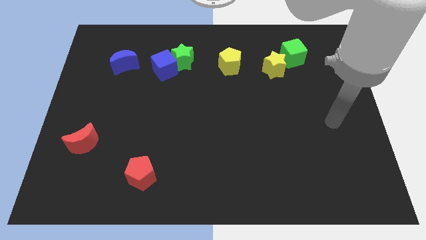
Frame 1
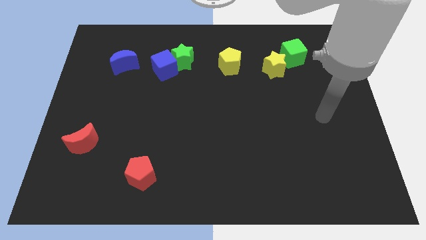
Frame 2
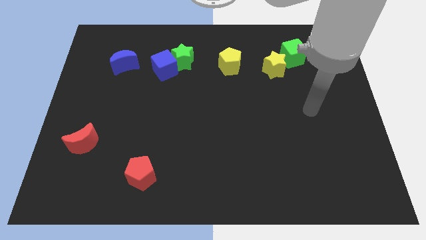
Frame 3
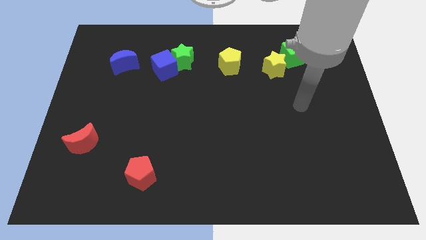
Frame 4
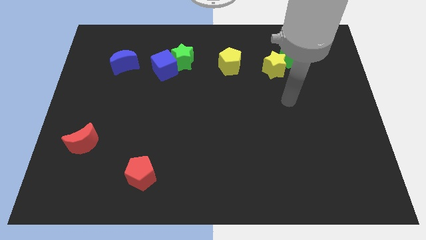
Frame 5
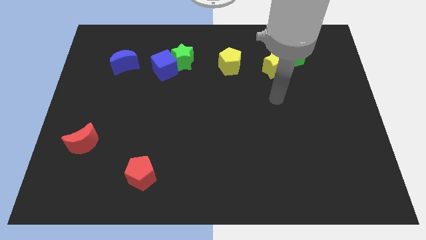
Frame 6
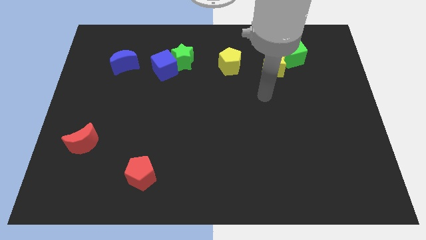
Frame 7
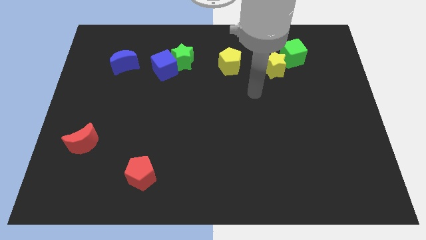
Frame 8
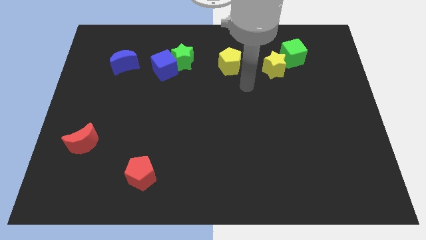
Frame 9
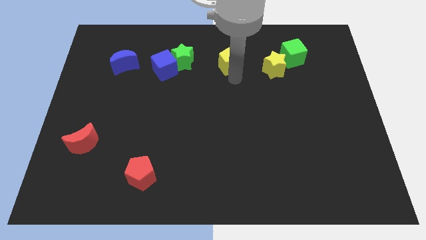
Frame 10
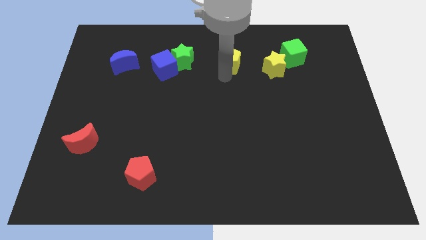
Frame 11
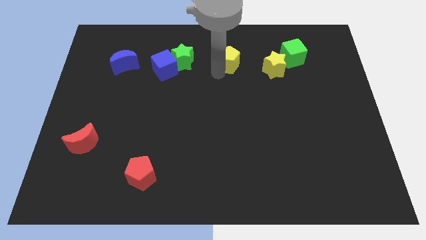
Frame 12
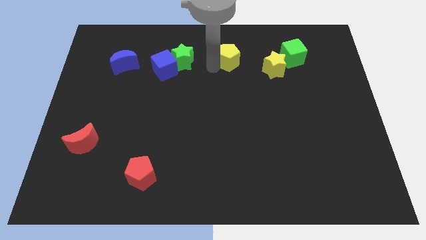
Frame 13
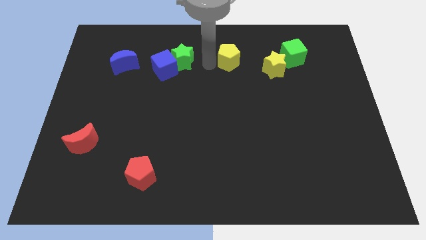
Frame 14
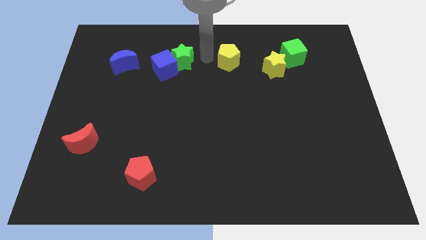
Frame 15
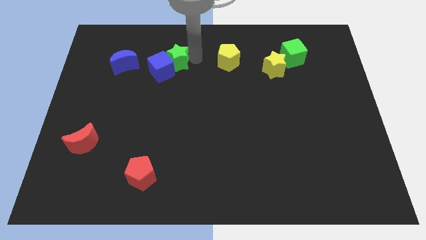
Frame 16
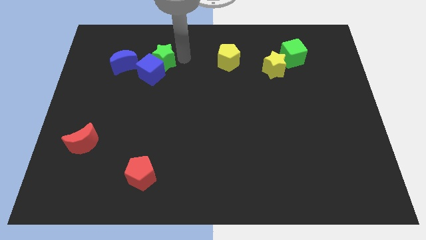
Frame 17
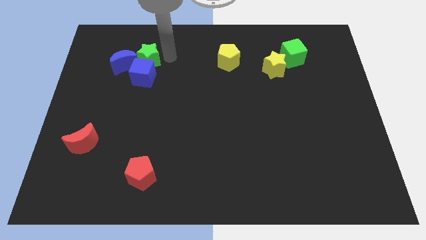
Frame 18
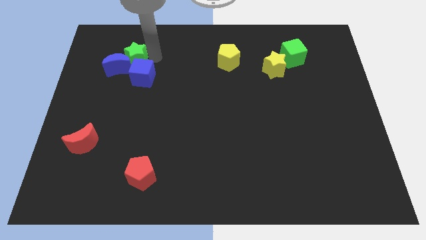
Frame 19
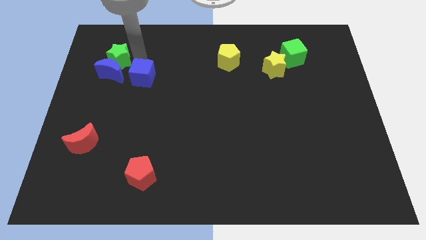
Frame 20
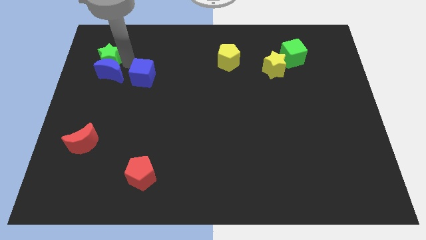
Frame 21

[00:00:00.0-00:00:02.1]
move the blue cube away from the green star

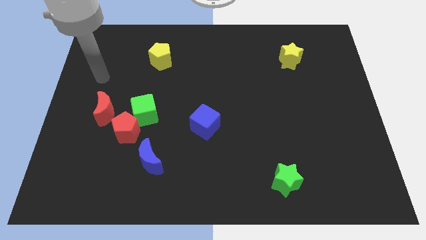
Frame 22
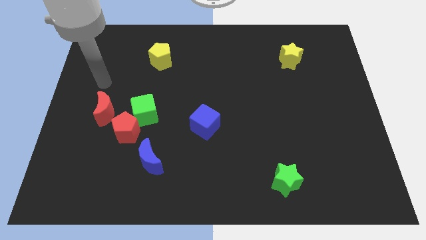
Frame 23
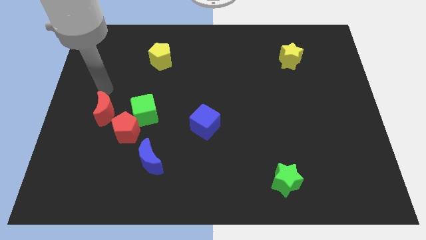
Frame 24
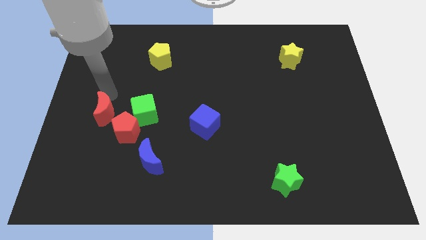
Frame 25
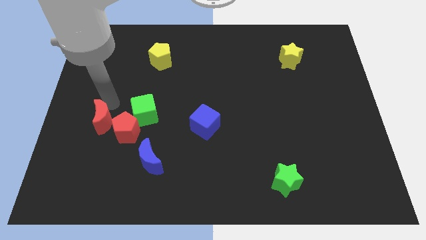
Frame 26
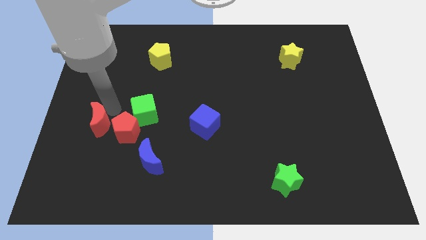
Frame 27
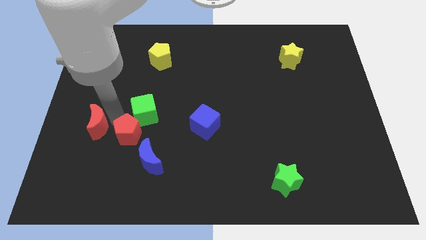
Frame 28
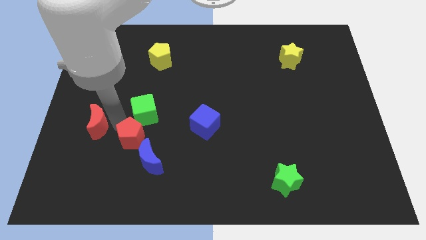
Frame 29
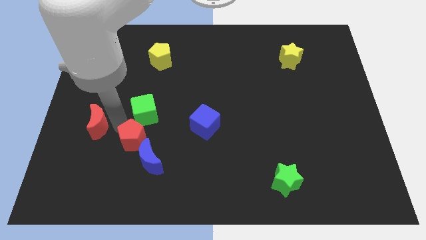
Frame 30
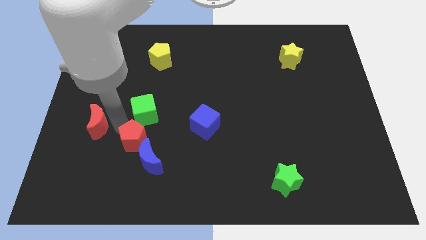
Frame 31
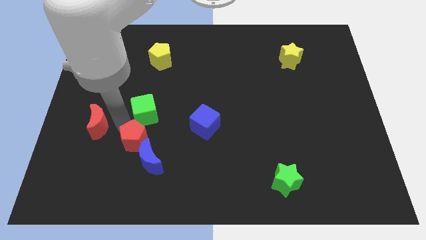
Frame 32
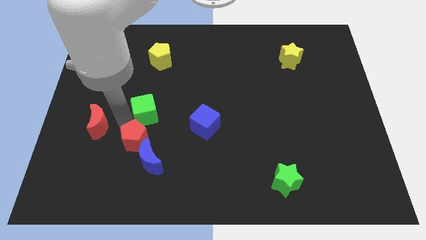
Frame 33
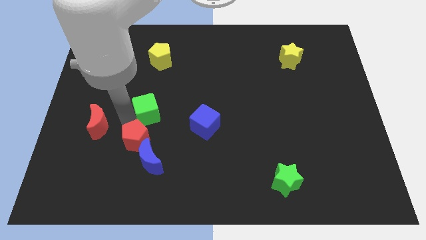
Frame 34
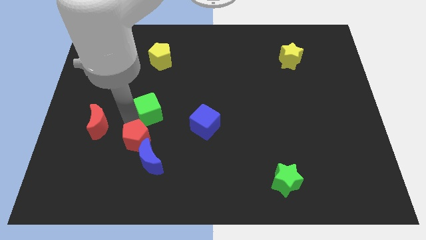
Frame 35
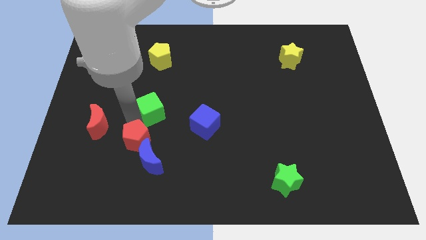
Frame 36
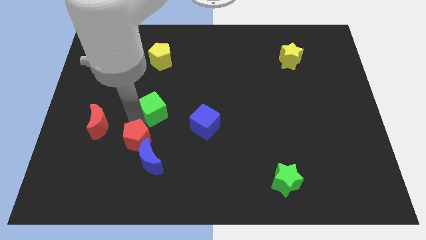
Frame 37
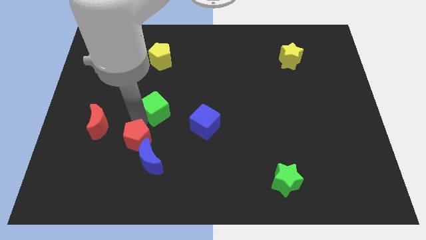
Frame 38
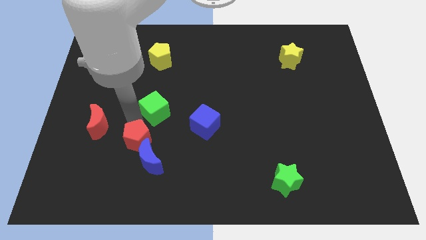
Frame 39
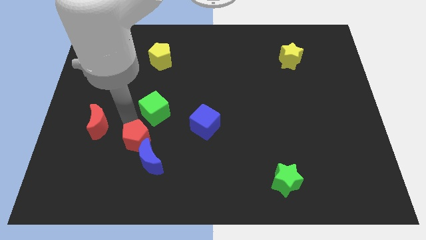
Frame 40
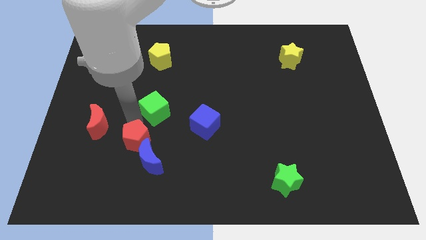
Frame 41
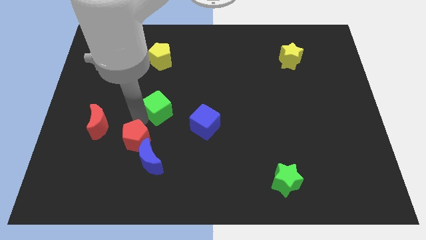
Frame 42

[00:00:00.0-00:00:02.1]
separate the green cube from the red pentagon and red moon

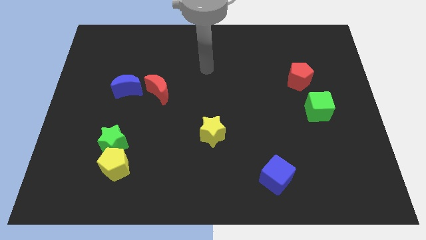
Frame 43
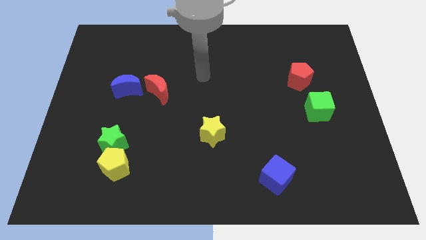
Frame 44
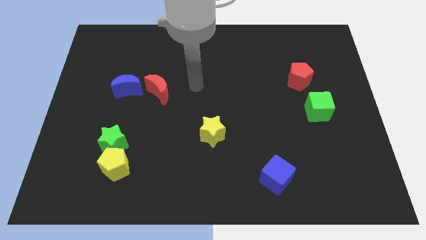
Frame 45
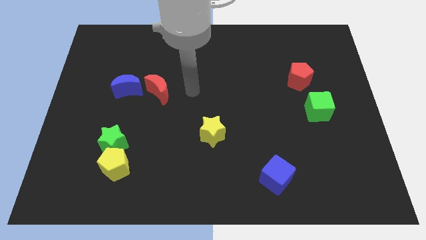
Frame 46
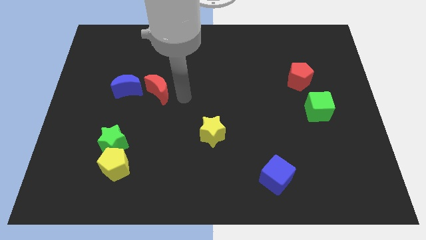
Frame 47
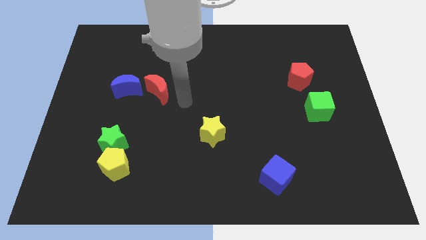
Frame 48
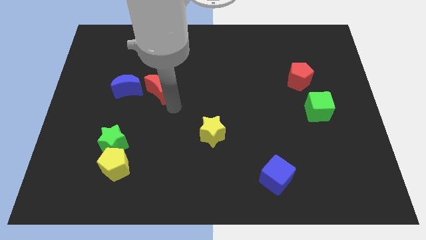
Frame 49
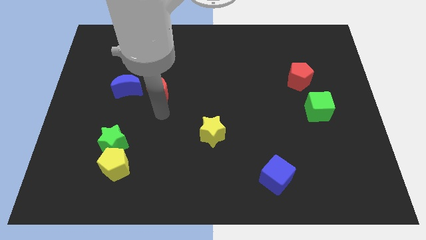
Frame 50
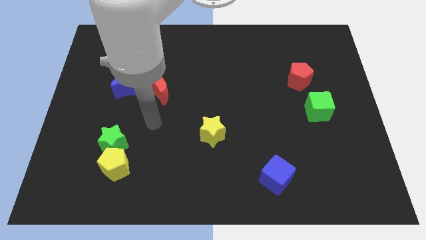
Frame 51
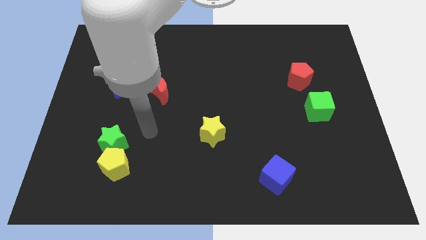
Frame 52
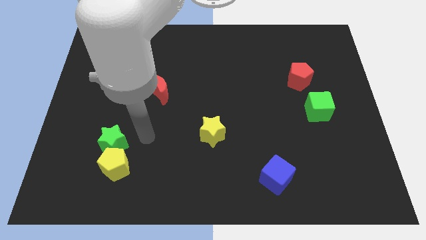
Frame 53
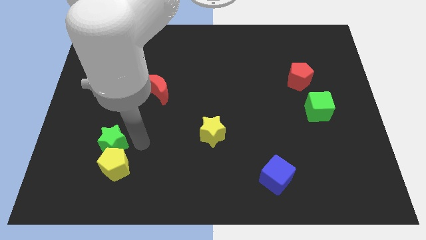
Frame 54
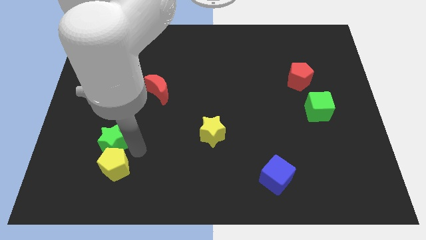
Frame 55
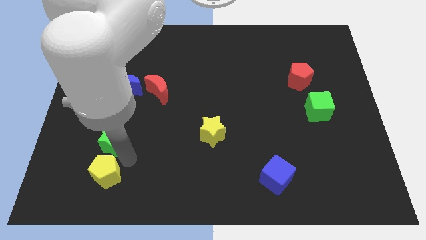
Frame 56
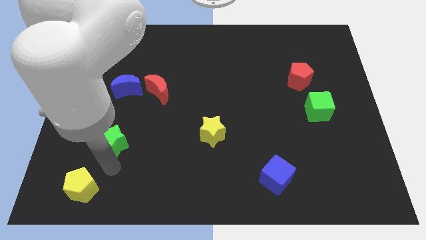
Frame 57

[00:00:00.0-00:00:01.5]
pull the green star apart from the yellow pentagon

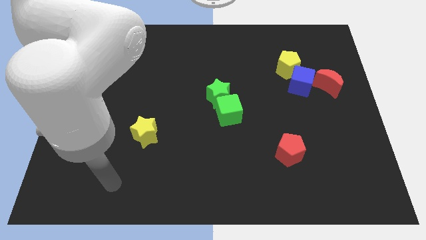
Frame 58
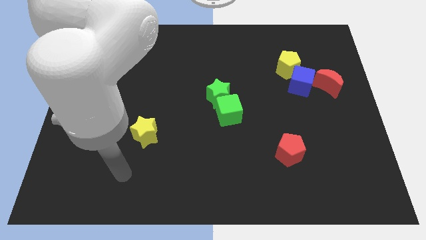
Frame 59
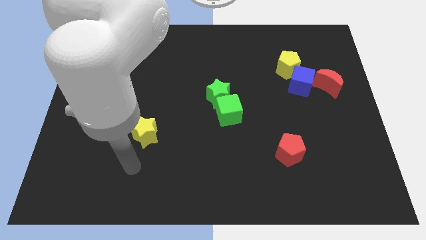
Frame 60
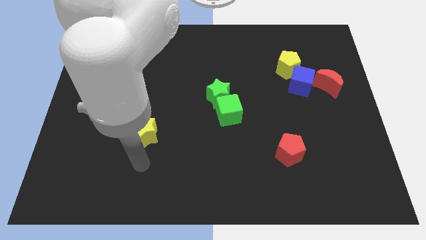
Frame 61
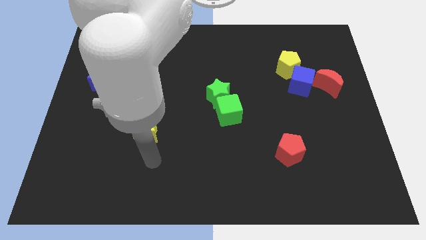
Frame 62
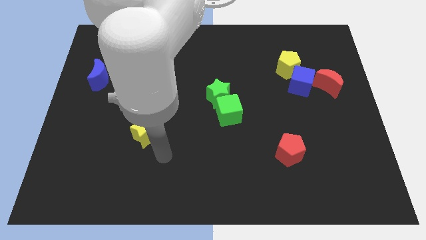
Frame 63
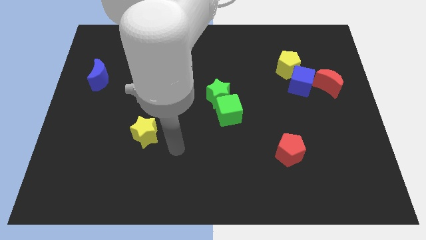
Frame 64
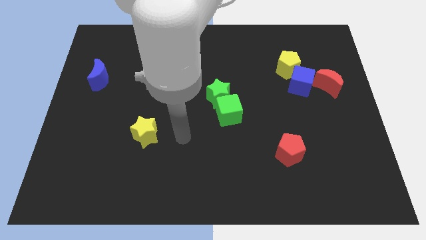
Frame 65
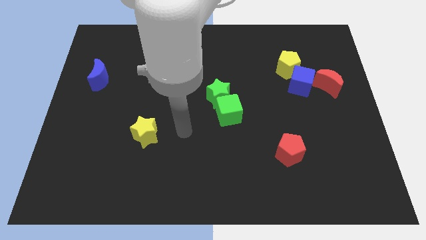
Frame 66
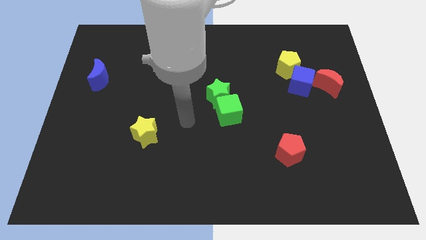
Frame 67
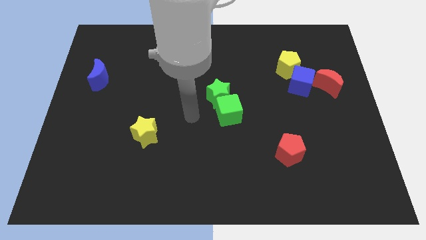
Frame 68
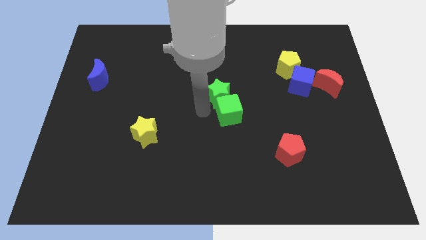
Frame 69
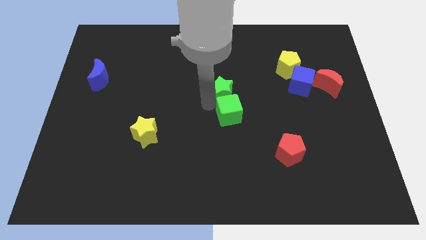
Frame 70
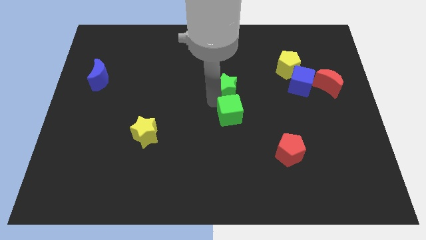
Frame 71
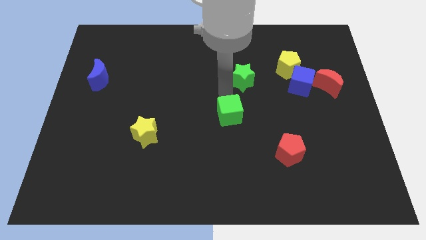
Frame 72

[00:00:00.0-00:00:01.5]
move the green cube away from the green star

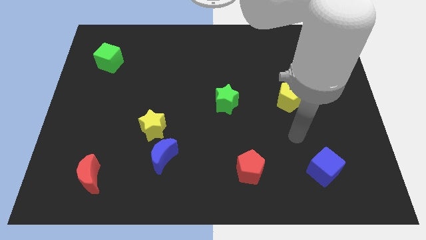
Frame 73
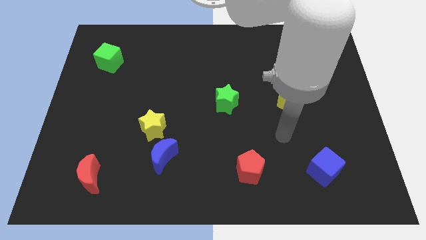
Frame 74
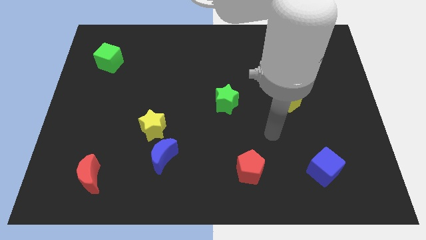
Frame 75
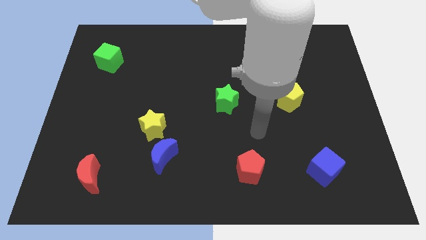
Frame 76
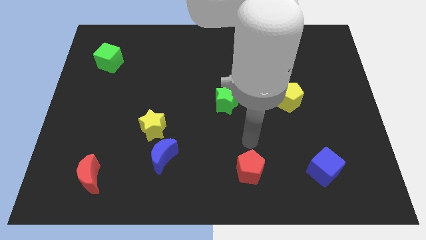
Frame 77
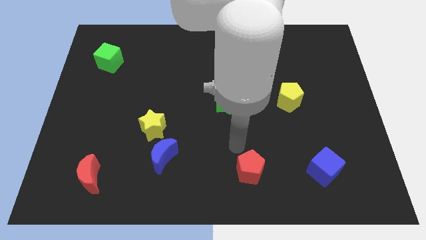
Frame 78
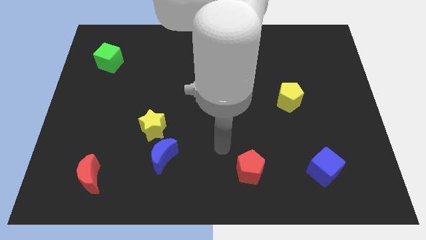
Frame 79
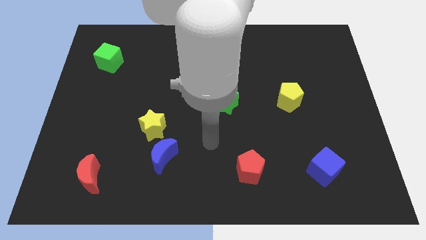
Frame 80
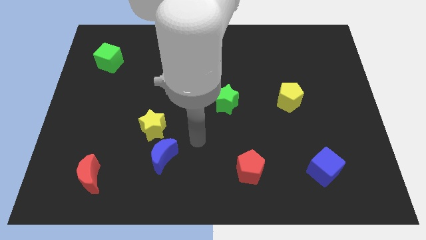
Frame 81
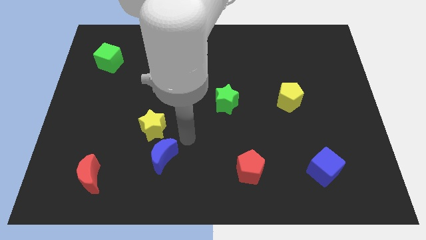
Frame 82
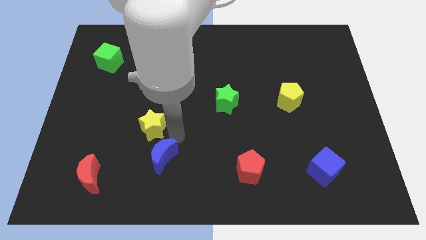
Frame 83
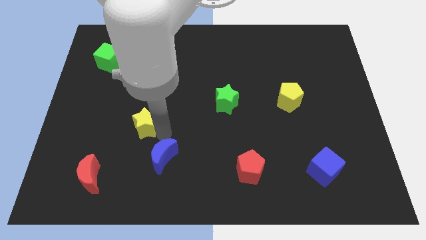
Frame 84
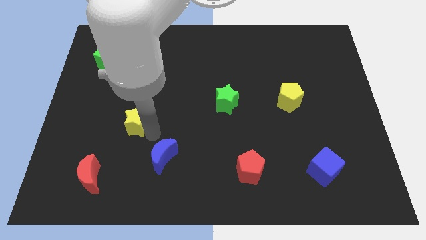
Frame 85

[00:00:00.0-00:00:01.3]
separate the blue moon from the yellow star

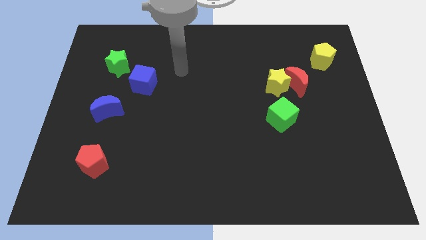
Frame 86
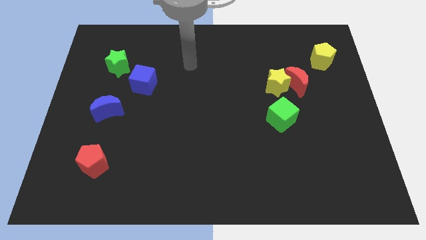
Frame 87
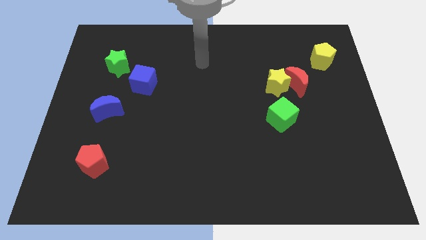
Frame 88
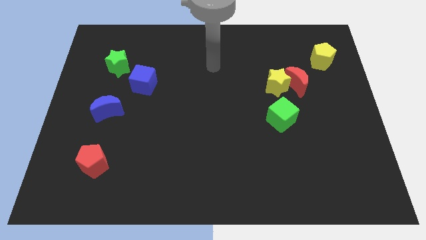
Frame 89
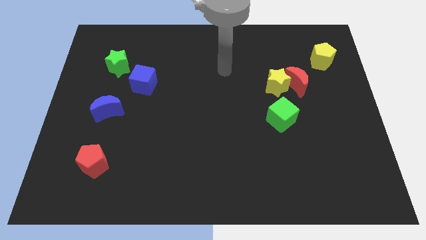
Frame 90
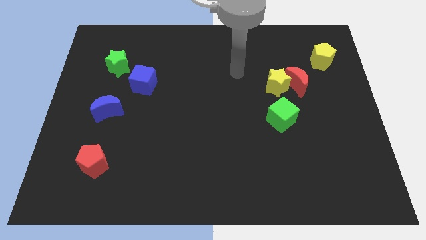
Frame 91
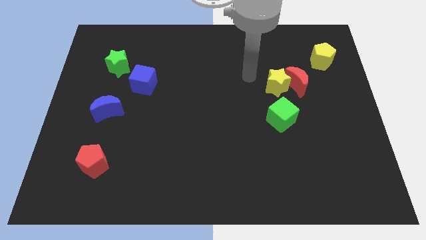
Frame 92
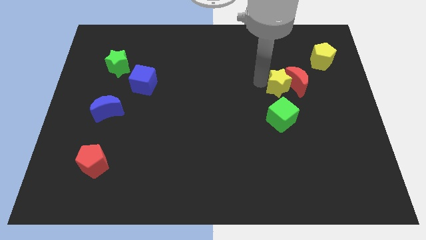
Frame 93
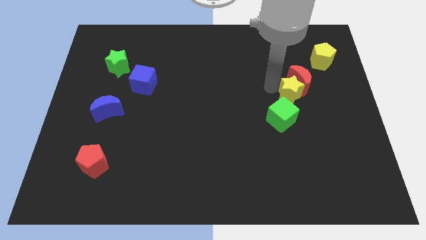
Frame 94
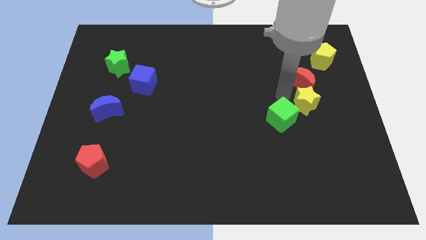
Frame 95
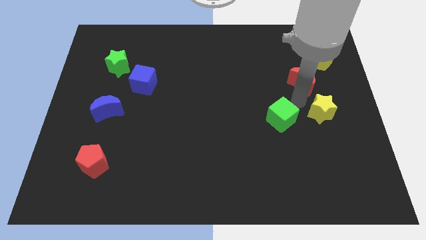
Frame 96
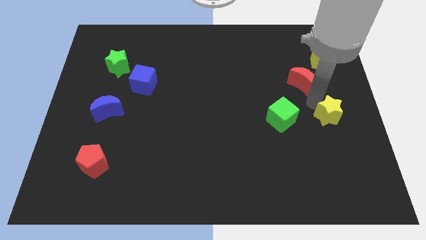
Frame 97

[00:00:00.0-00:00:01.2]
pull the red moon apart from the yellow star
